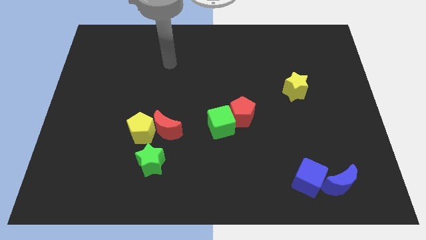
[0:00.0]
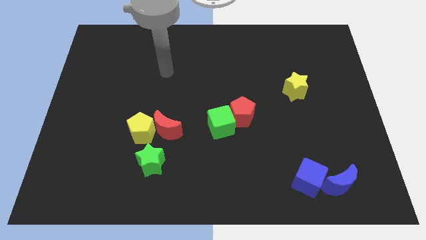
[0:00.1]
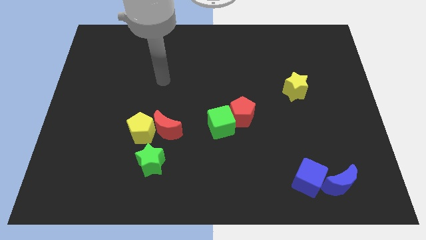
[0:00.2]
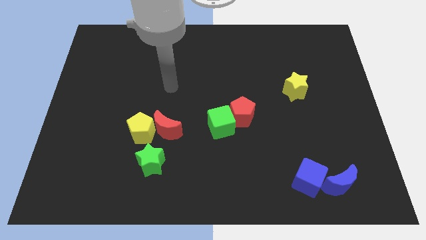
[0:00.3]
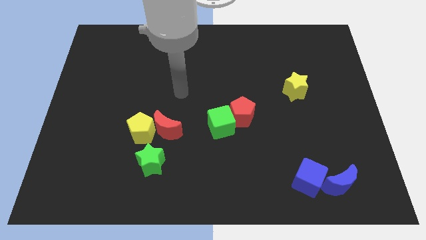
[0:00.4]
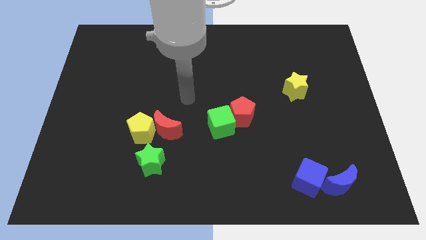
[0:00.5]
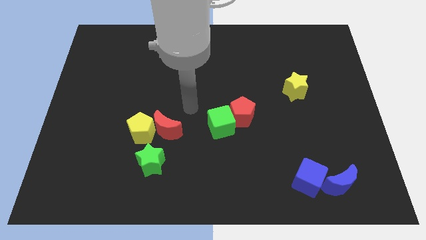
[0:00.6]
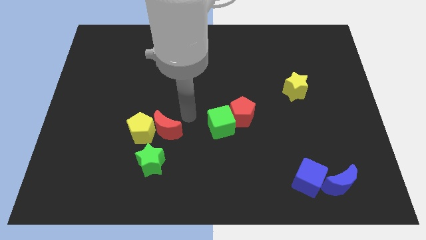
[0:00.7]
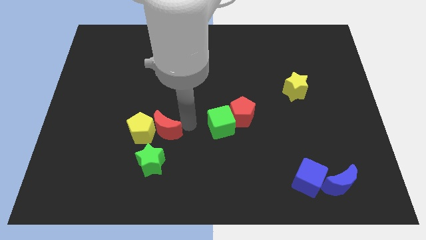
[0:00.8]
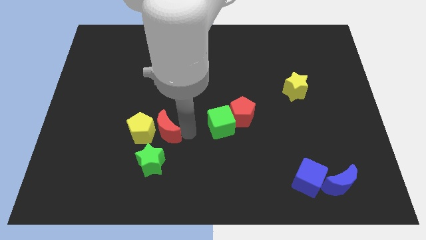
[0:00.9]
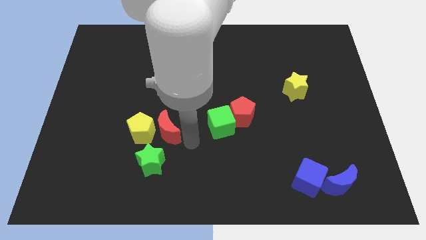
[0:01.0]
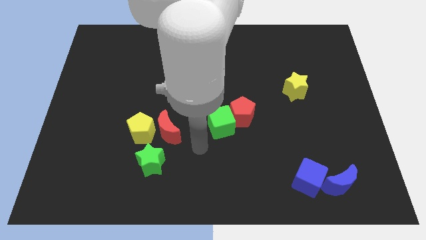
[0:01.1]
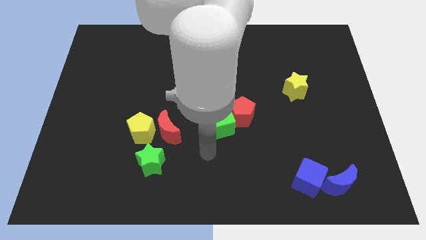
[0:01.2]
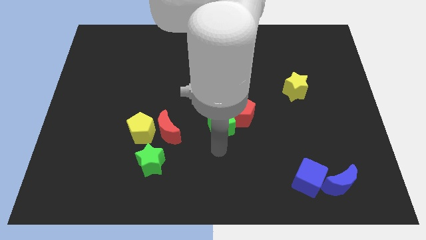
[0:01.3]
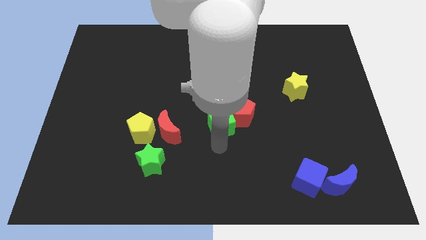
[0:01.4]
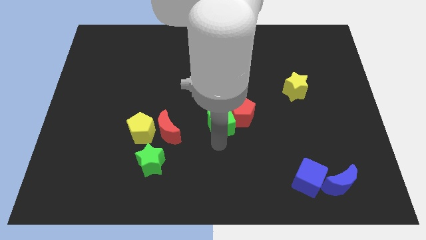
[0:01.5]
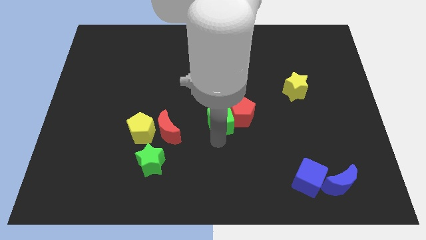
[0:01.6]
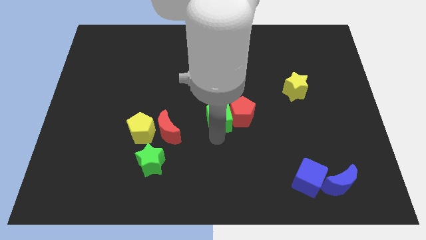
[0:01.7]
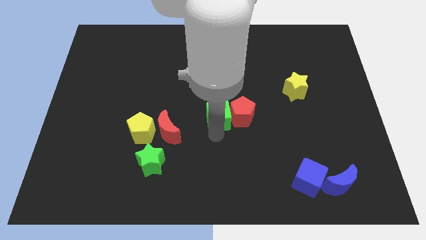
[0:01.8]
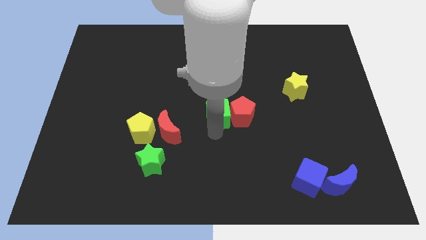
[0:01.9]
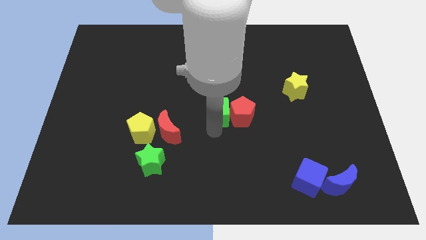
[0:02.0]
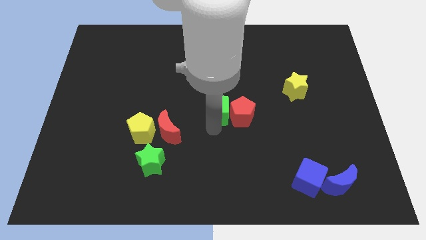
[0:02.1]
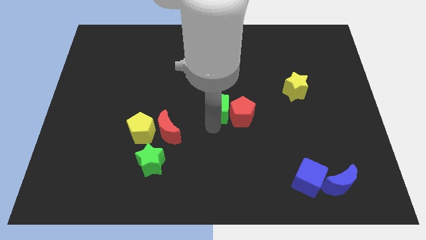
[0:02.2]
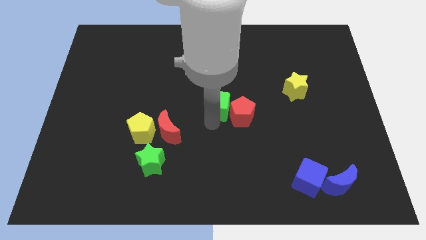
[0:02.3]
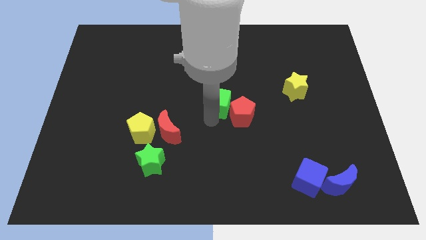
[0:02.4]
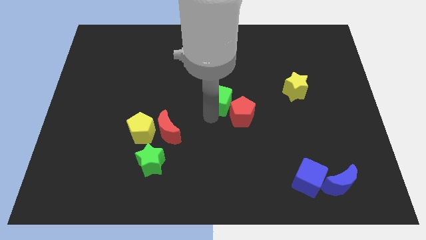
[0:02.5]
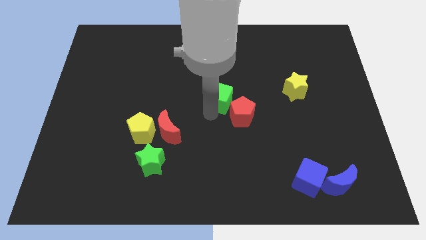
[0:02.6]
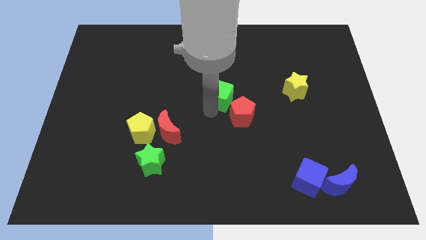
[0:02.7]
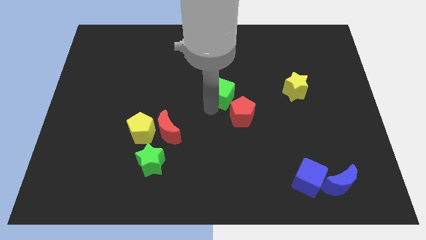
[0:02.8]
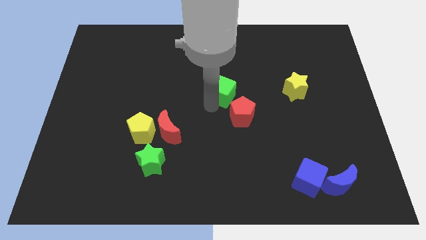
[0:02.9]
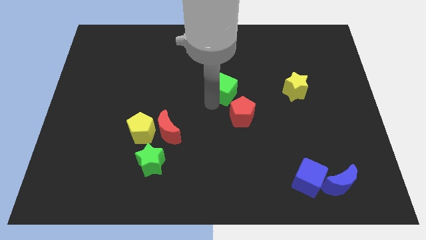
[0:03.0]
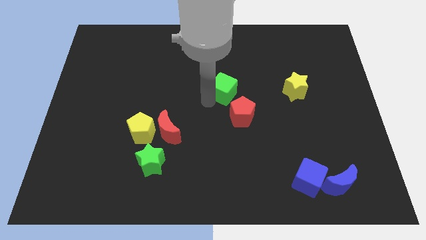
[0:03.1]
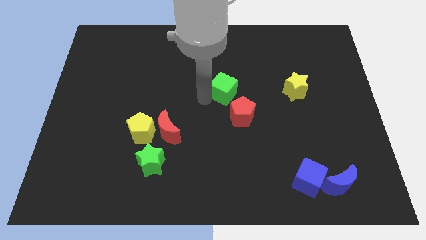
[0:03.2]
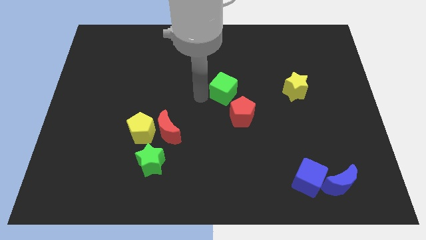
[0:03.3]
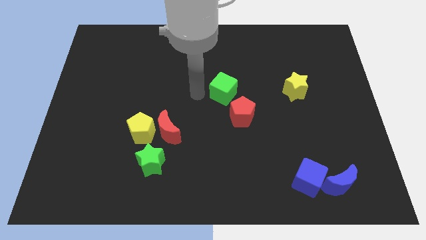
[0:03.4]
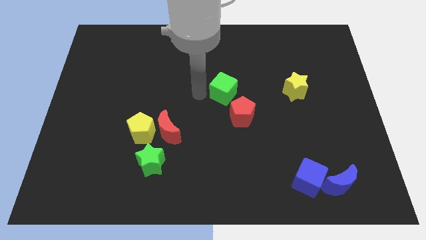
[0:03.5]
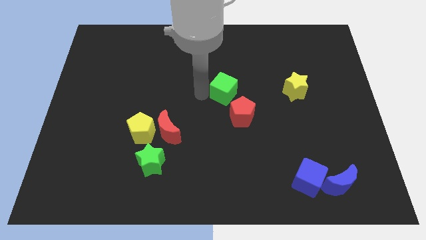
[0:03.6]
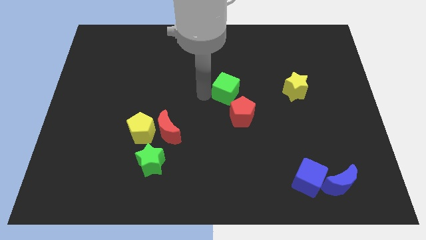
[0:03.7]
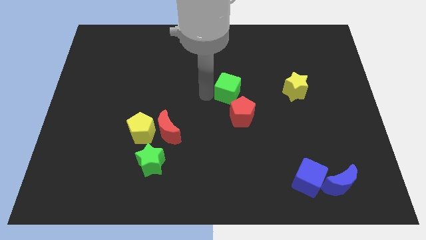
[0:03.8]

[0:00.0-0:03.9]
slide the green cube somewhat up and then to the right

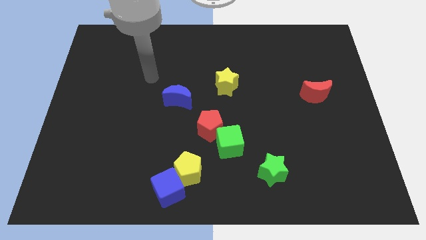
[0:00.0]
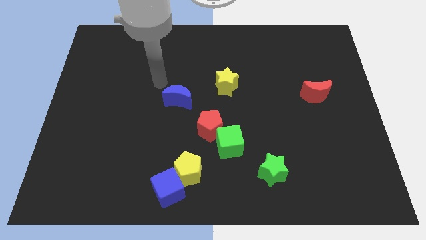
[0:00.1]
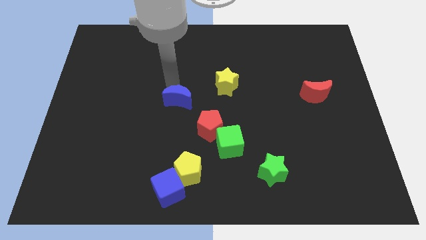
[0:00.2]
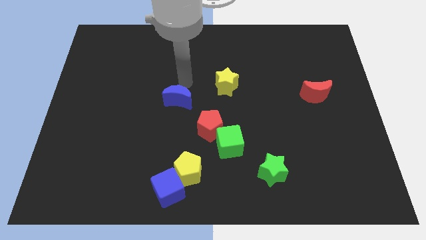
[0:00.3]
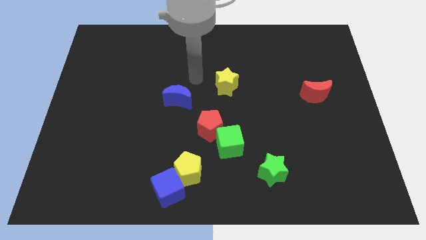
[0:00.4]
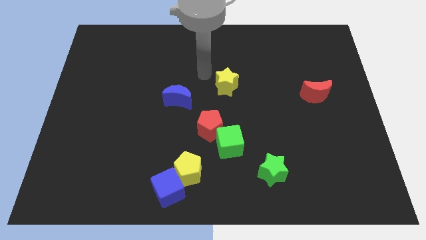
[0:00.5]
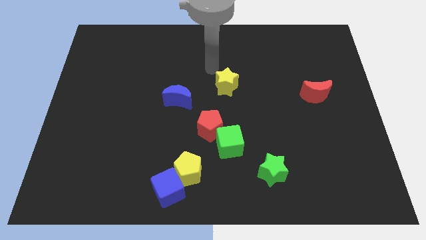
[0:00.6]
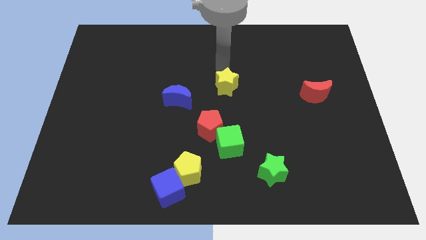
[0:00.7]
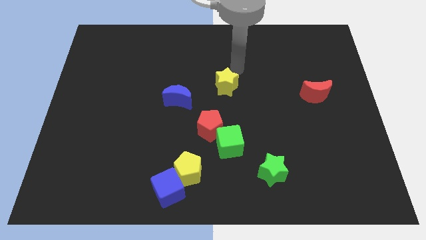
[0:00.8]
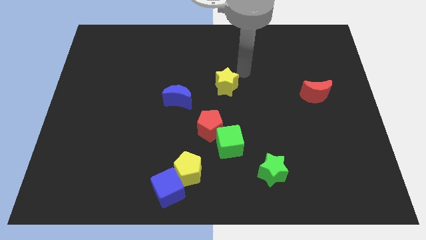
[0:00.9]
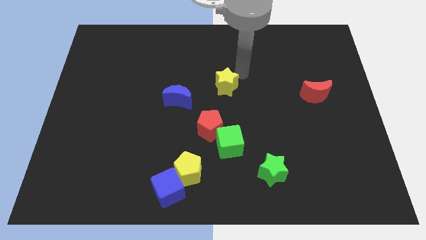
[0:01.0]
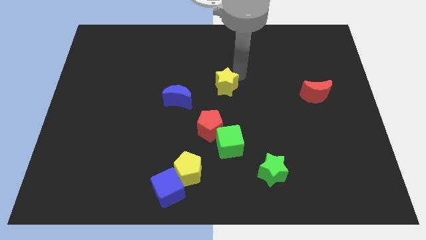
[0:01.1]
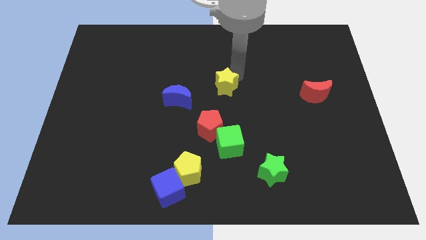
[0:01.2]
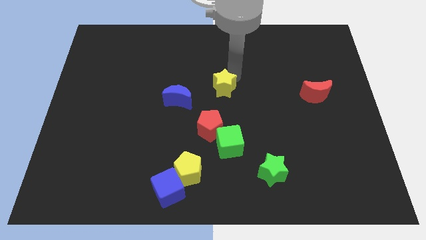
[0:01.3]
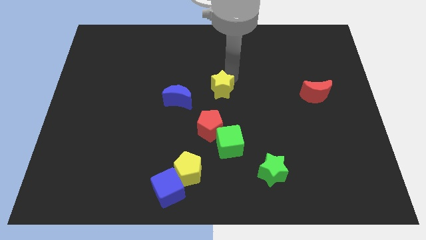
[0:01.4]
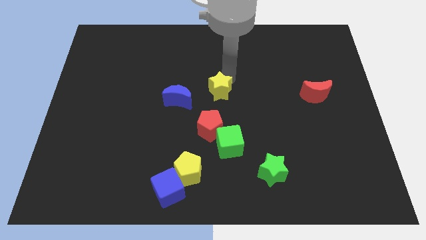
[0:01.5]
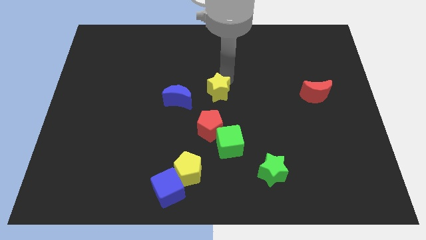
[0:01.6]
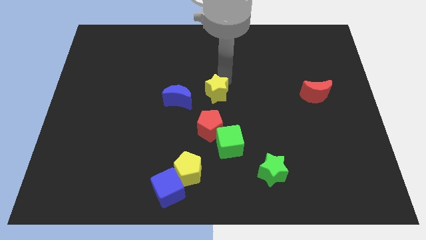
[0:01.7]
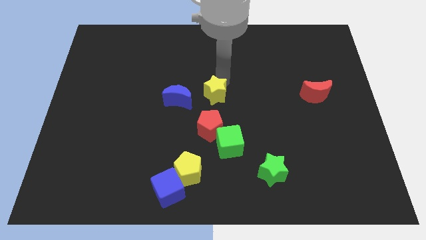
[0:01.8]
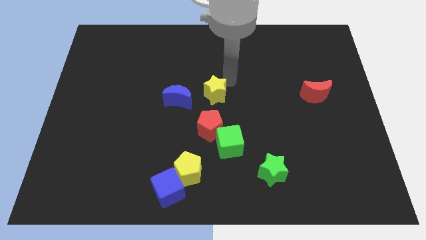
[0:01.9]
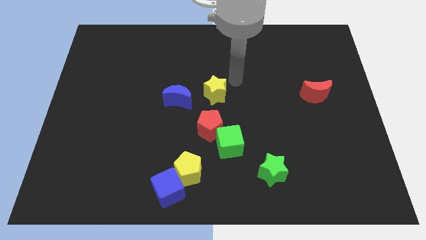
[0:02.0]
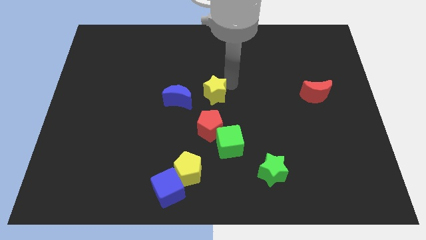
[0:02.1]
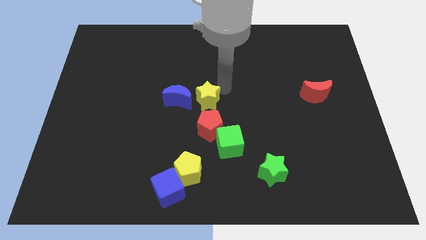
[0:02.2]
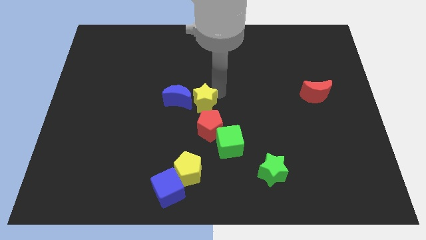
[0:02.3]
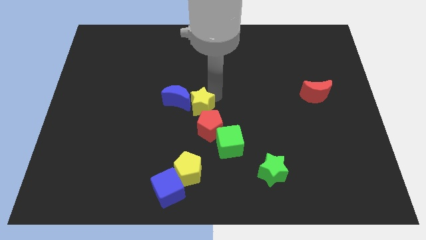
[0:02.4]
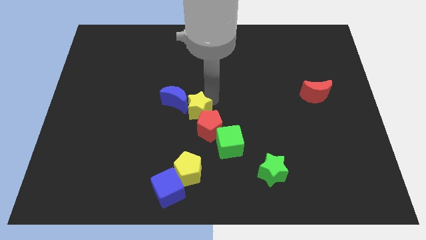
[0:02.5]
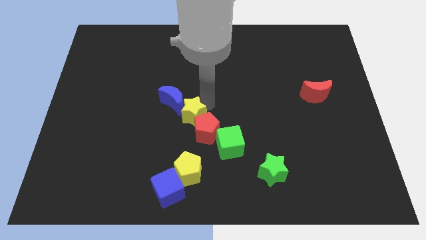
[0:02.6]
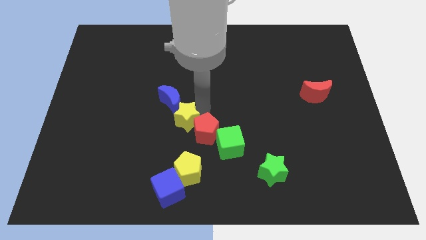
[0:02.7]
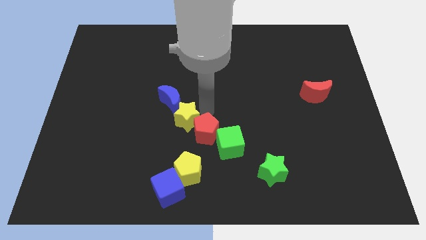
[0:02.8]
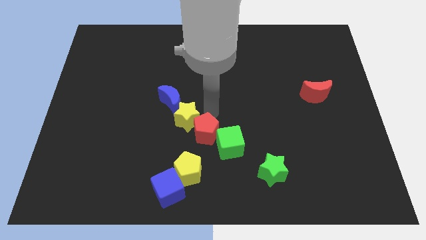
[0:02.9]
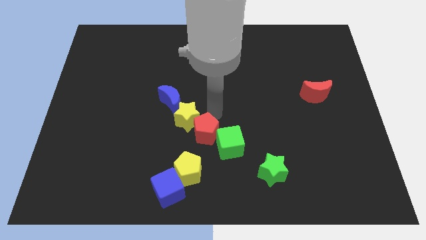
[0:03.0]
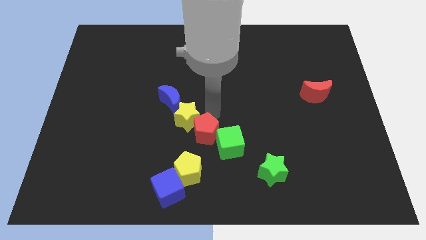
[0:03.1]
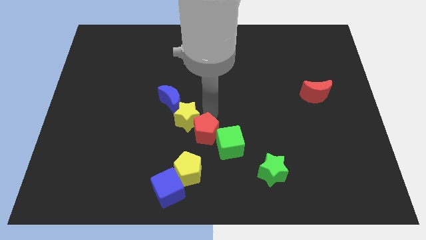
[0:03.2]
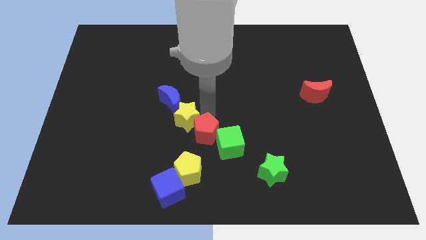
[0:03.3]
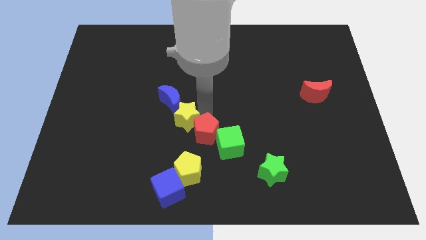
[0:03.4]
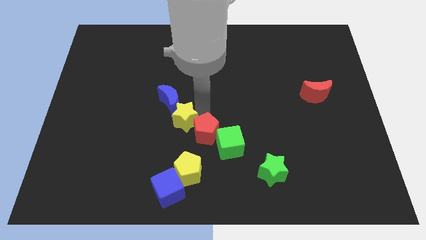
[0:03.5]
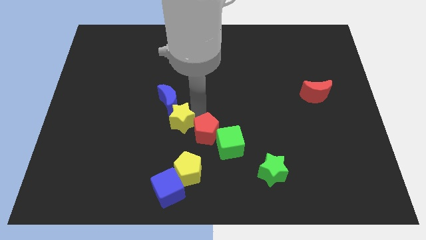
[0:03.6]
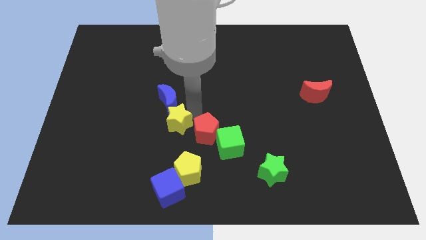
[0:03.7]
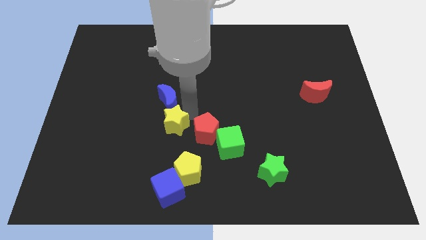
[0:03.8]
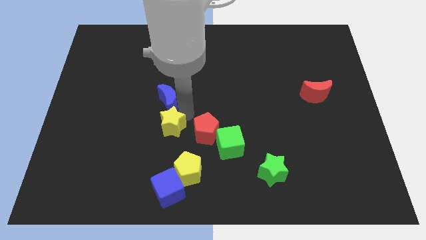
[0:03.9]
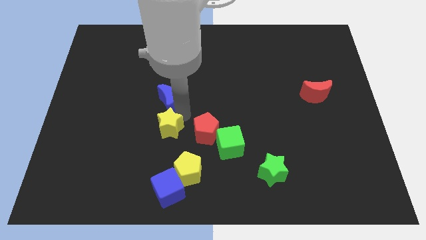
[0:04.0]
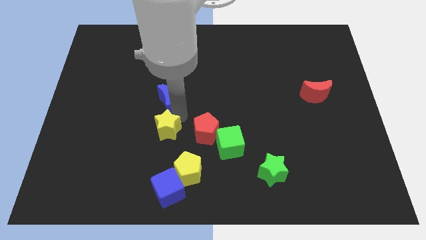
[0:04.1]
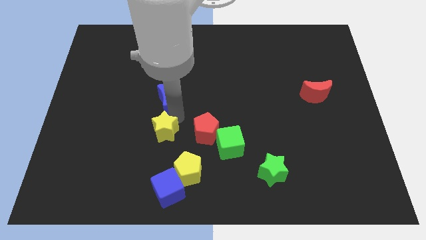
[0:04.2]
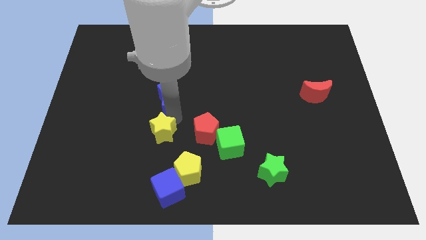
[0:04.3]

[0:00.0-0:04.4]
push the yellow star down and then to the left
